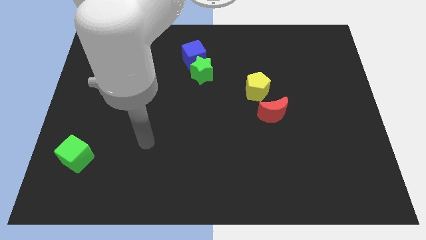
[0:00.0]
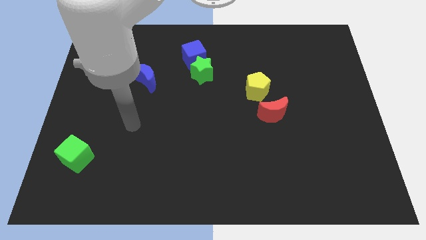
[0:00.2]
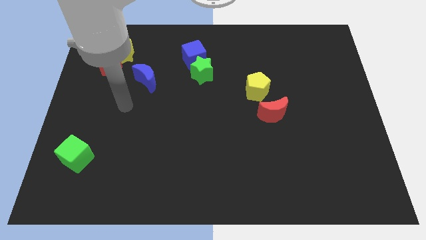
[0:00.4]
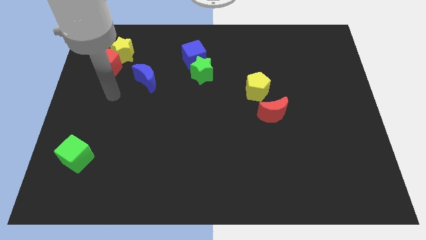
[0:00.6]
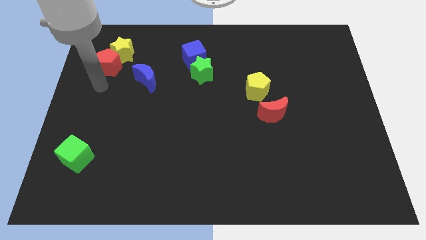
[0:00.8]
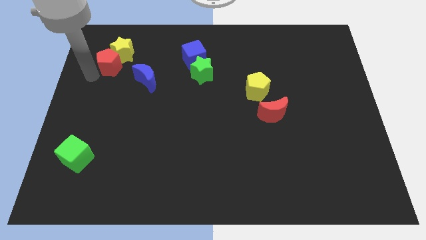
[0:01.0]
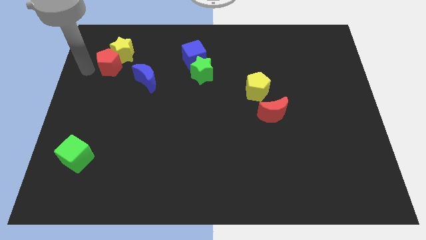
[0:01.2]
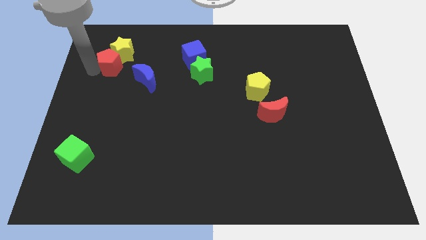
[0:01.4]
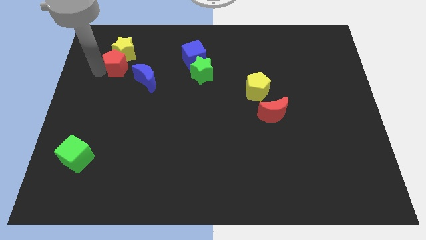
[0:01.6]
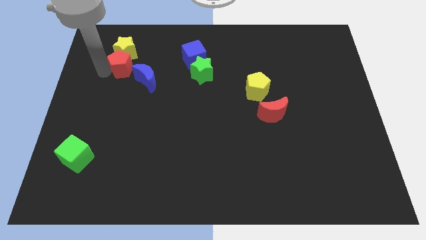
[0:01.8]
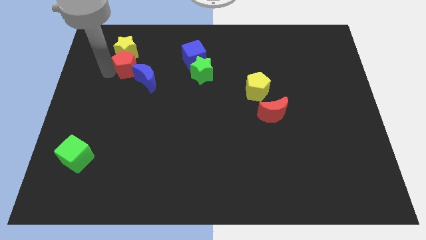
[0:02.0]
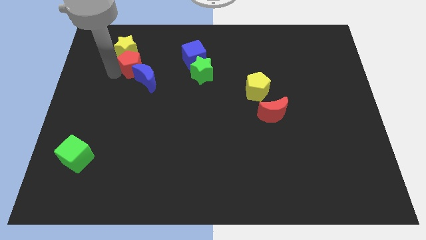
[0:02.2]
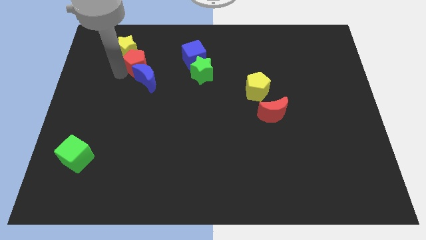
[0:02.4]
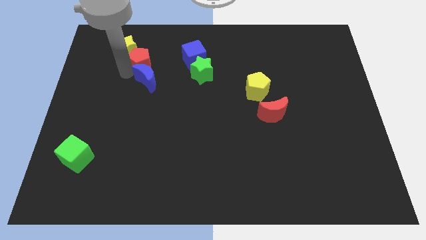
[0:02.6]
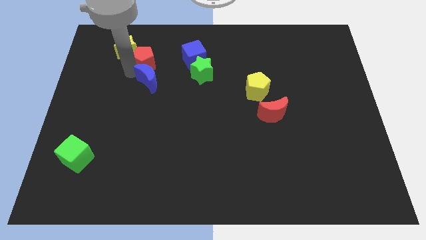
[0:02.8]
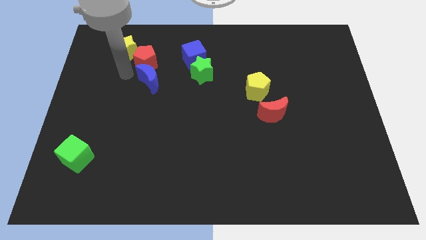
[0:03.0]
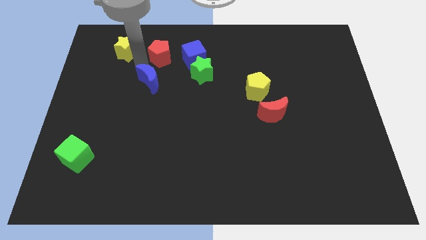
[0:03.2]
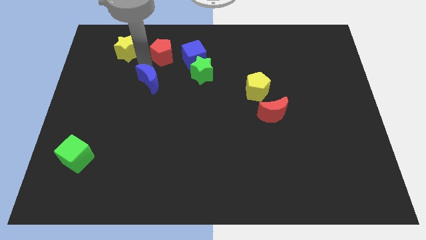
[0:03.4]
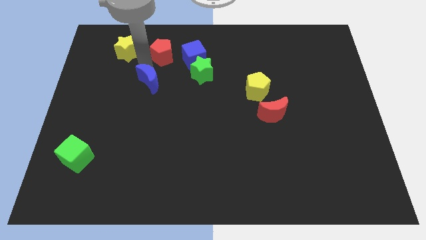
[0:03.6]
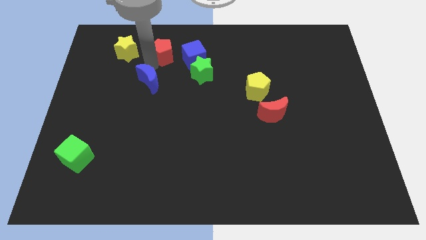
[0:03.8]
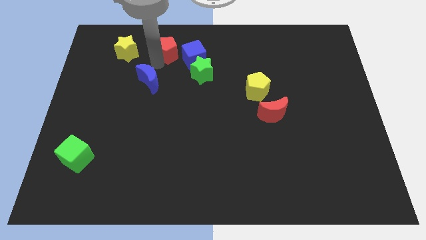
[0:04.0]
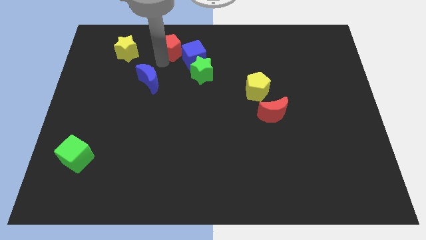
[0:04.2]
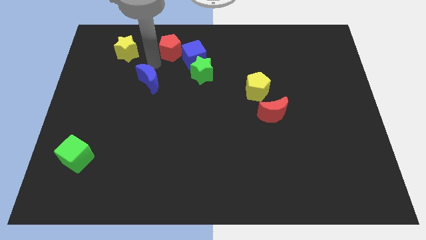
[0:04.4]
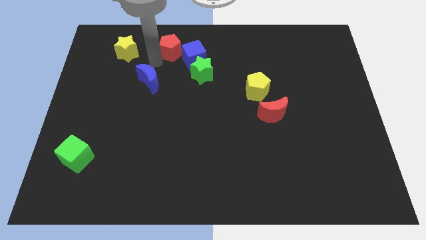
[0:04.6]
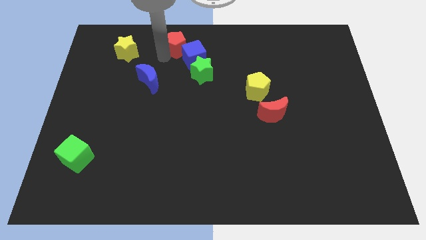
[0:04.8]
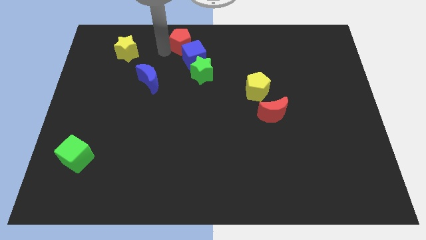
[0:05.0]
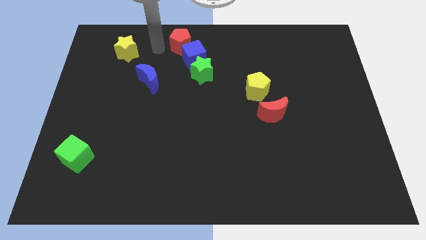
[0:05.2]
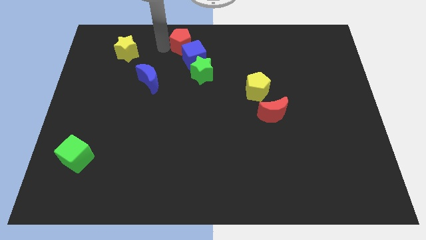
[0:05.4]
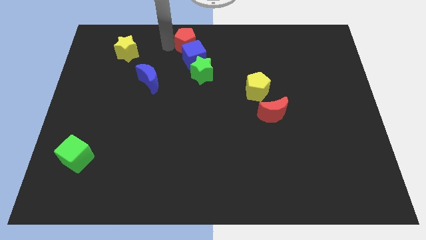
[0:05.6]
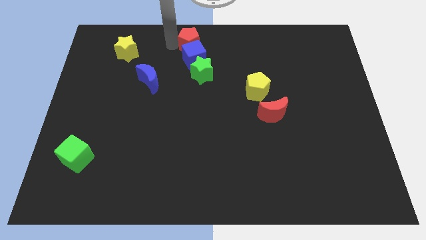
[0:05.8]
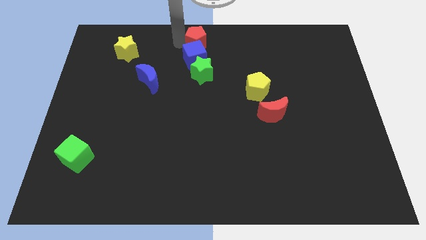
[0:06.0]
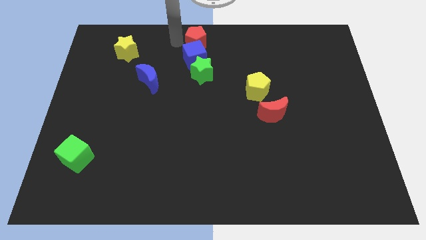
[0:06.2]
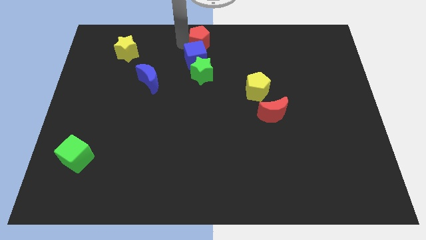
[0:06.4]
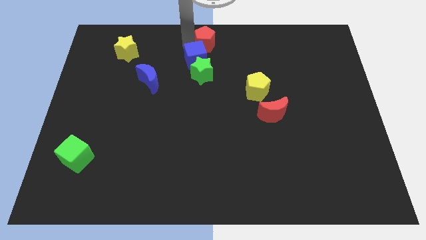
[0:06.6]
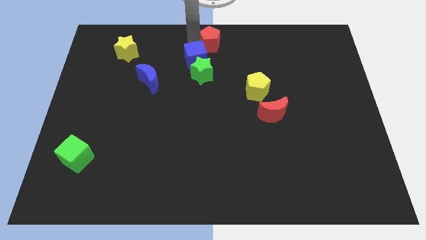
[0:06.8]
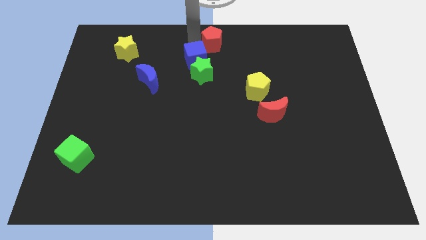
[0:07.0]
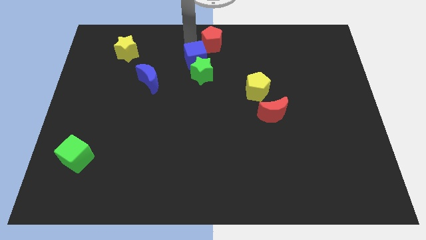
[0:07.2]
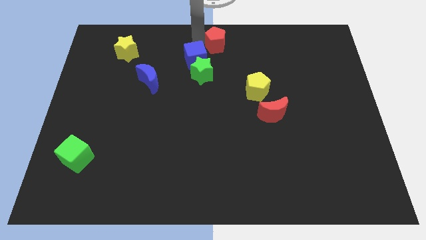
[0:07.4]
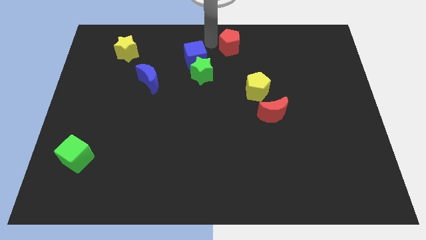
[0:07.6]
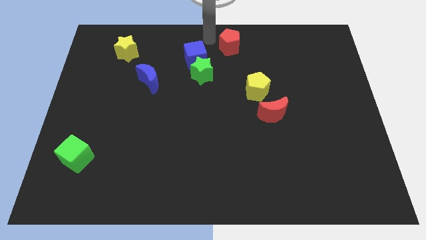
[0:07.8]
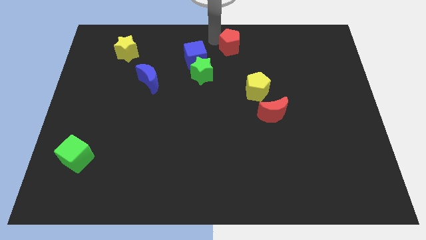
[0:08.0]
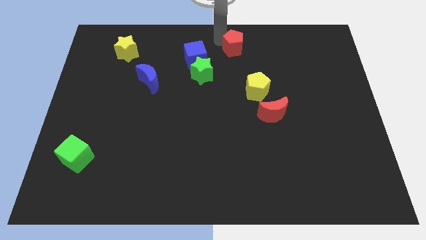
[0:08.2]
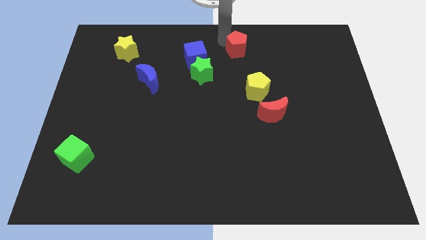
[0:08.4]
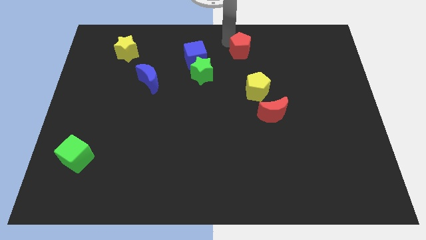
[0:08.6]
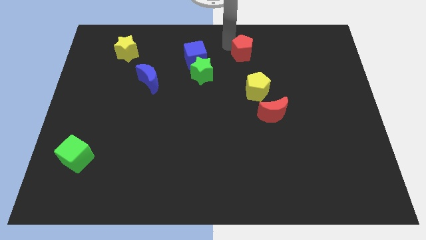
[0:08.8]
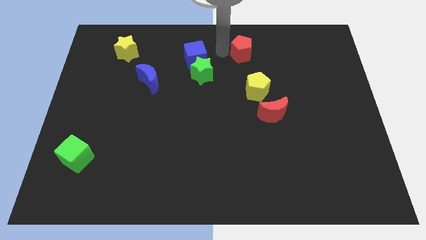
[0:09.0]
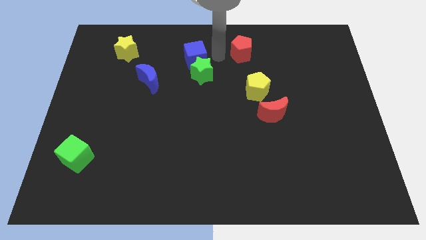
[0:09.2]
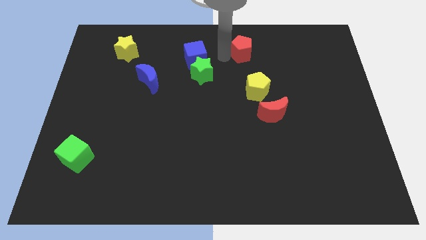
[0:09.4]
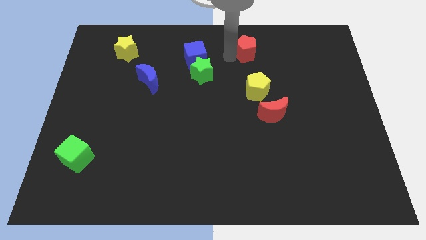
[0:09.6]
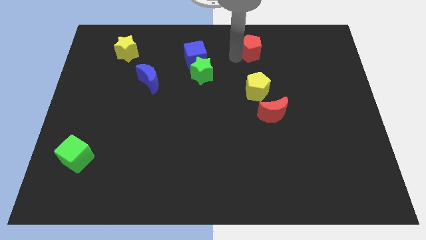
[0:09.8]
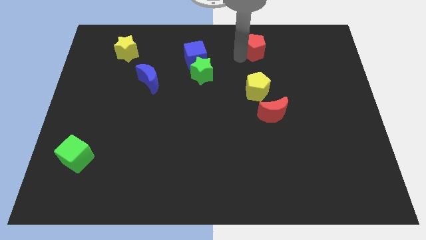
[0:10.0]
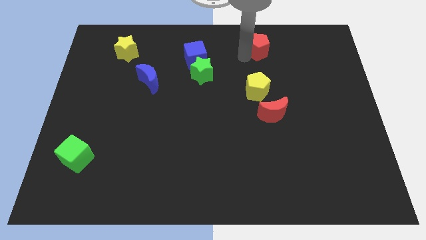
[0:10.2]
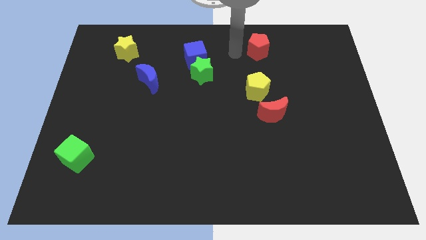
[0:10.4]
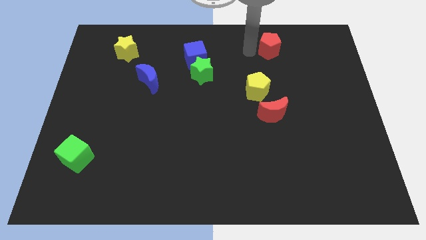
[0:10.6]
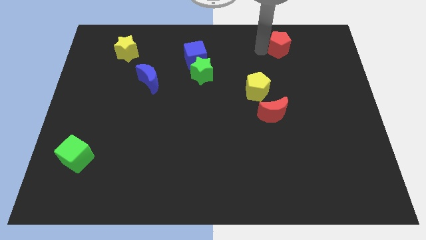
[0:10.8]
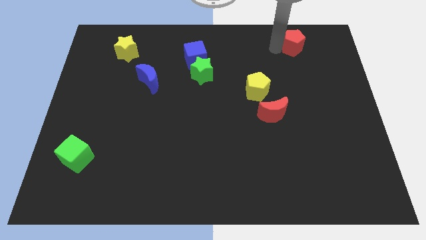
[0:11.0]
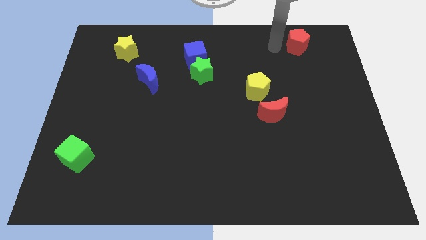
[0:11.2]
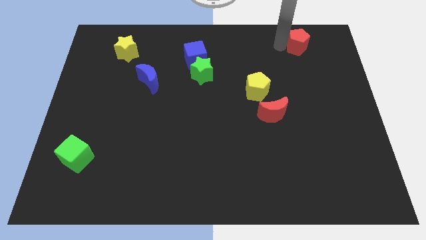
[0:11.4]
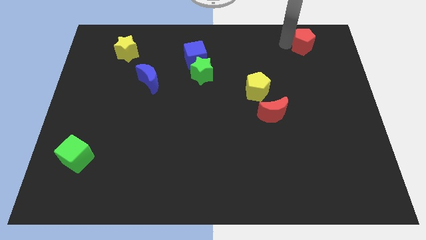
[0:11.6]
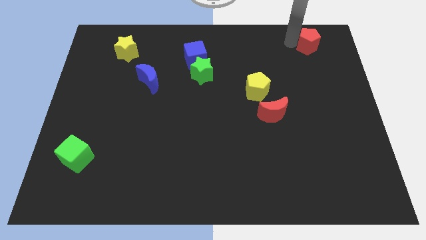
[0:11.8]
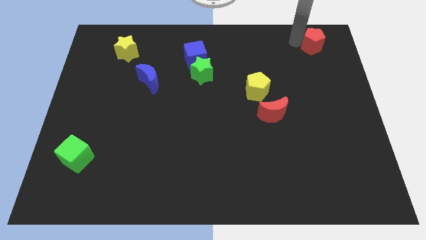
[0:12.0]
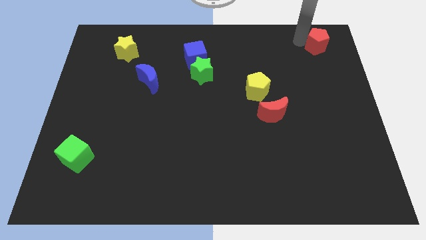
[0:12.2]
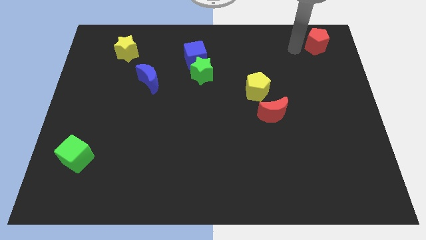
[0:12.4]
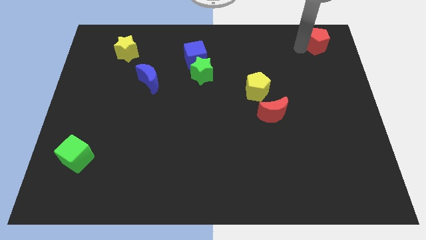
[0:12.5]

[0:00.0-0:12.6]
push the red pentagon to the upper right corner

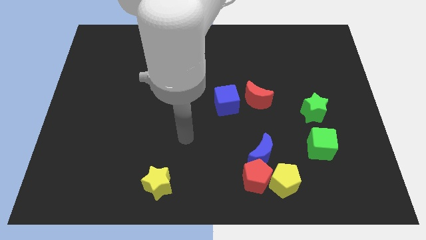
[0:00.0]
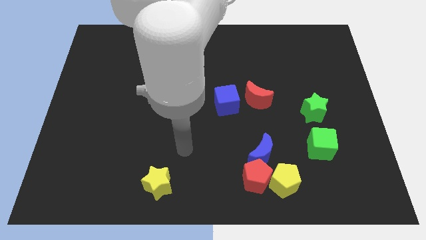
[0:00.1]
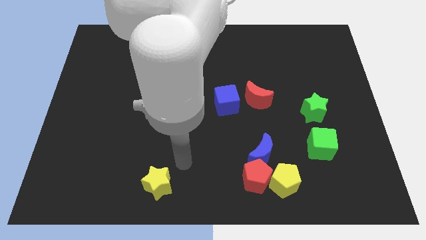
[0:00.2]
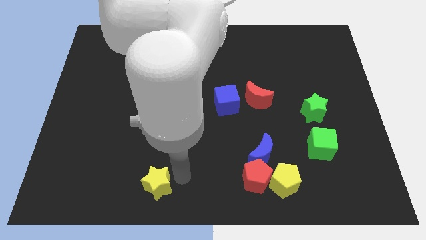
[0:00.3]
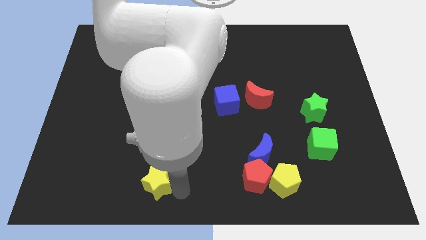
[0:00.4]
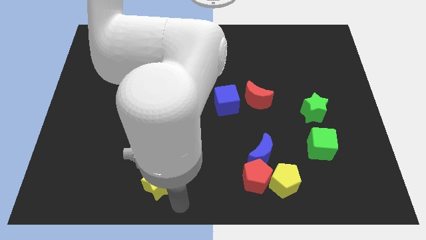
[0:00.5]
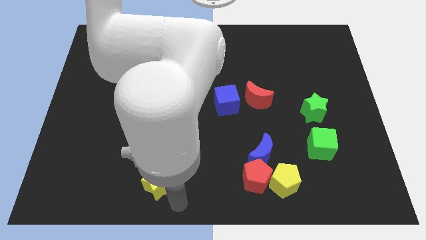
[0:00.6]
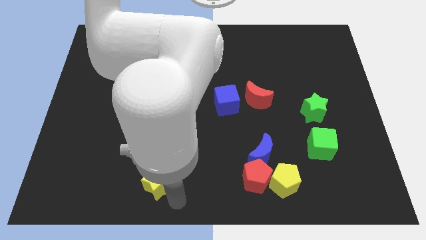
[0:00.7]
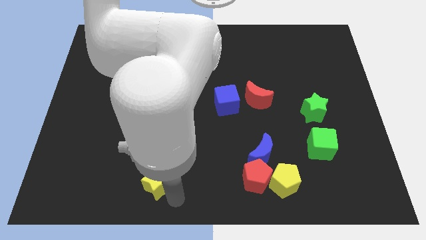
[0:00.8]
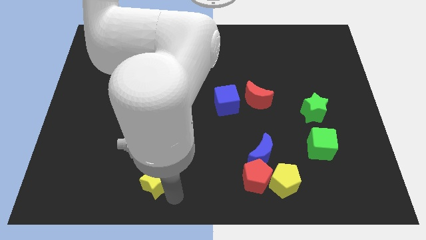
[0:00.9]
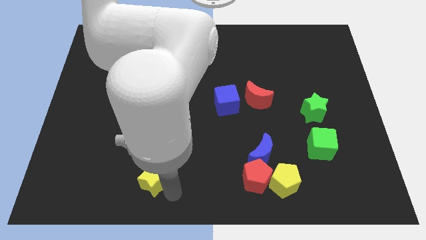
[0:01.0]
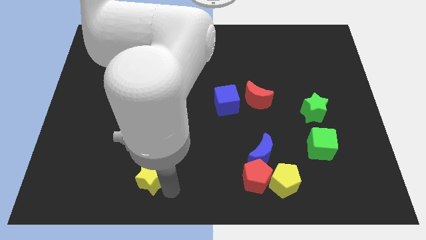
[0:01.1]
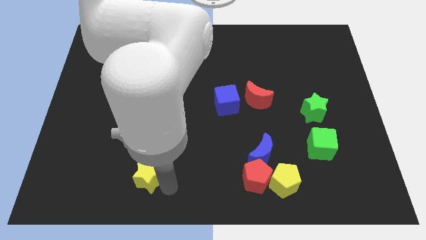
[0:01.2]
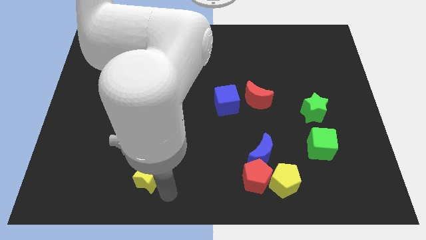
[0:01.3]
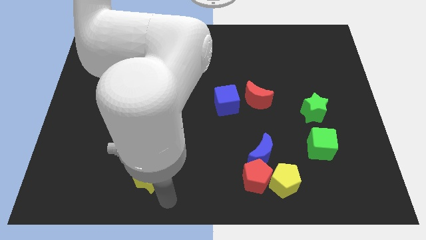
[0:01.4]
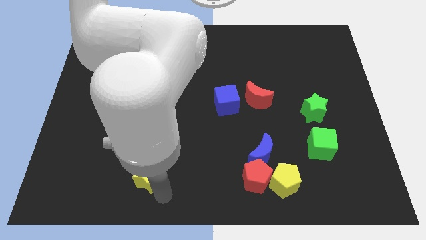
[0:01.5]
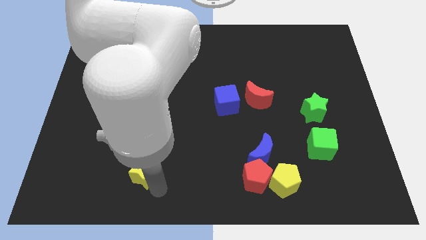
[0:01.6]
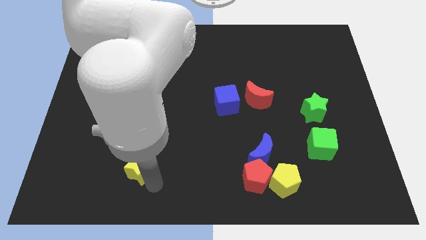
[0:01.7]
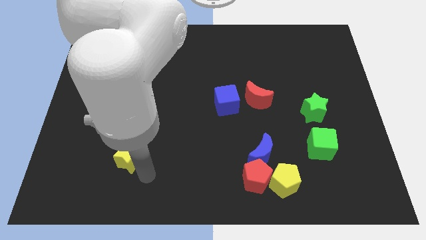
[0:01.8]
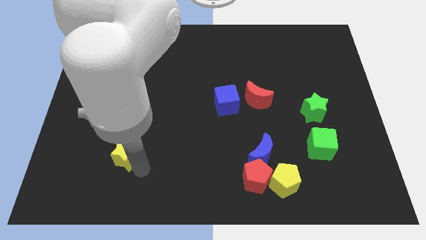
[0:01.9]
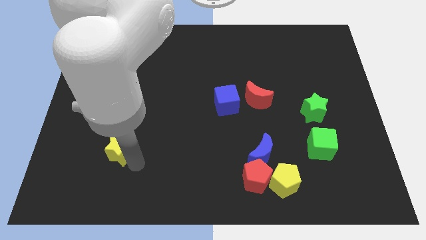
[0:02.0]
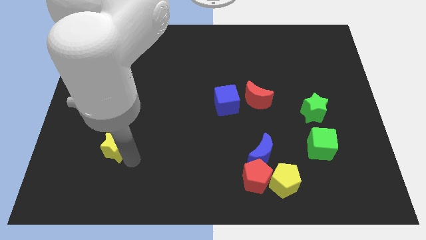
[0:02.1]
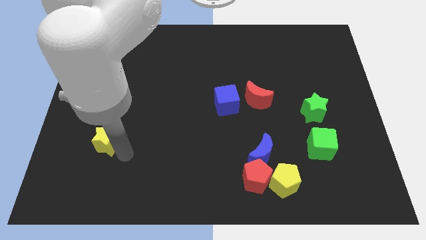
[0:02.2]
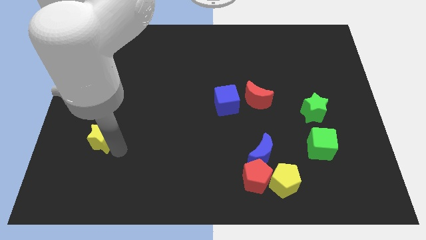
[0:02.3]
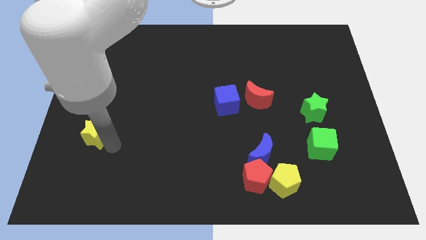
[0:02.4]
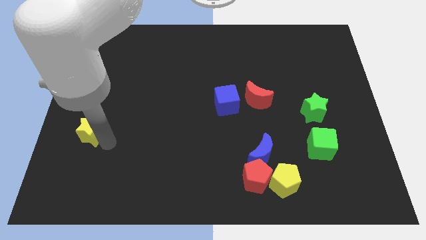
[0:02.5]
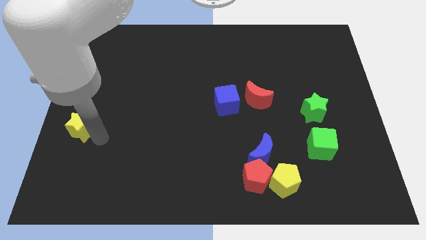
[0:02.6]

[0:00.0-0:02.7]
slide the yellow star to the left side of the board
